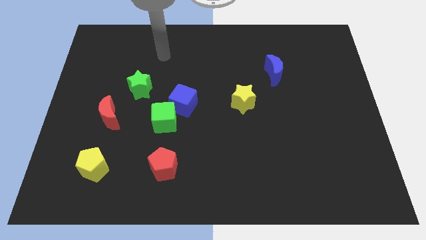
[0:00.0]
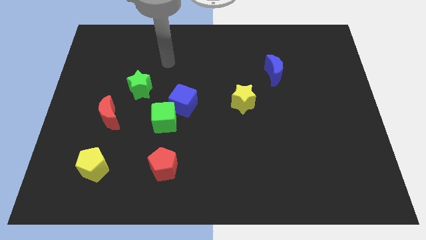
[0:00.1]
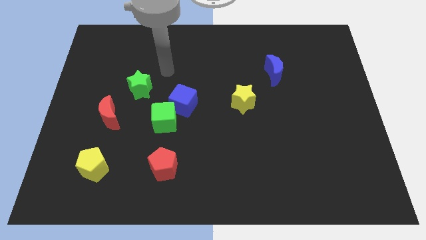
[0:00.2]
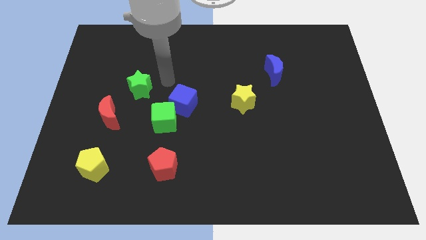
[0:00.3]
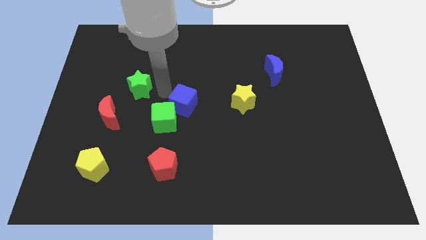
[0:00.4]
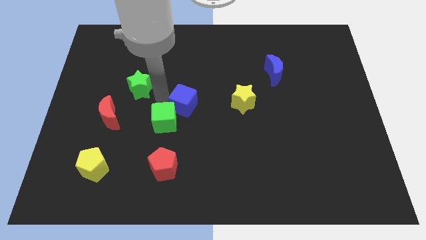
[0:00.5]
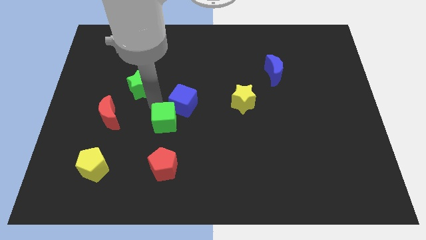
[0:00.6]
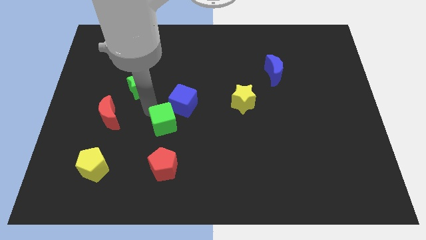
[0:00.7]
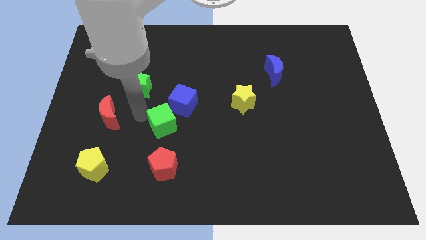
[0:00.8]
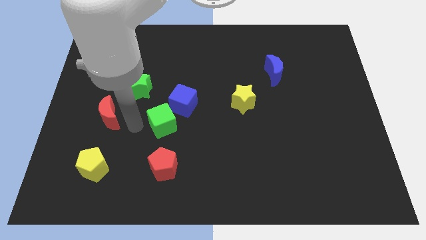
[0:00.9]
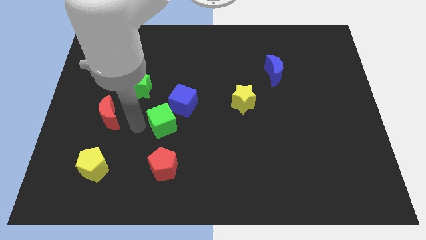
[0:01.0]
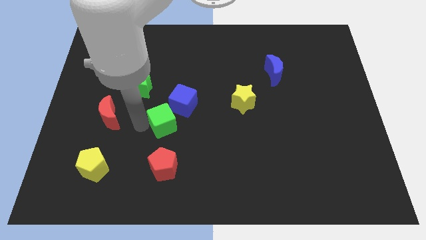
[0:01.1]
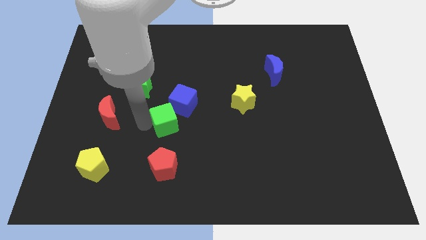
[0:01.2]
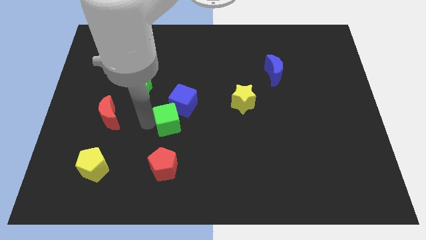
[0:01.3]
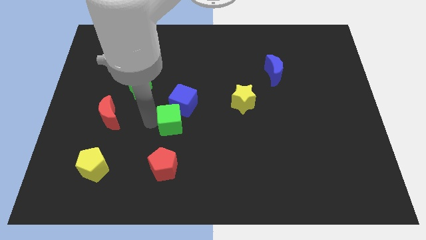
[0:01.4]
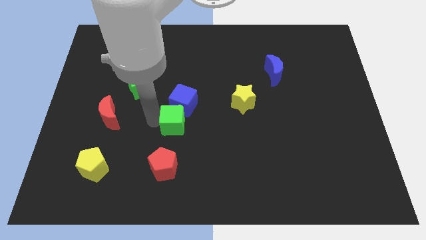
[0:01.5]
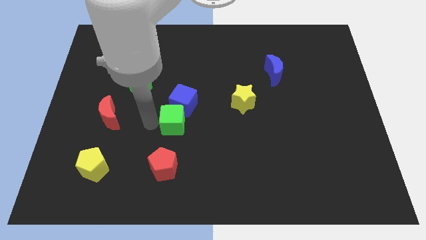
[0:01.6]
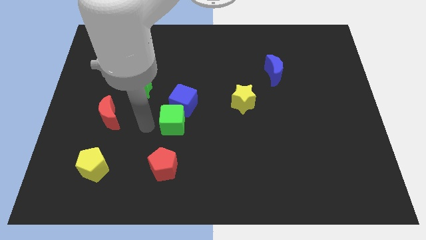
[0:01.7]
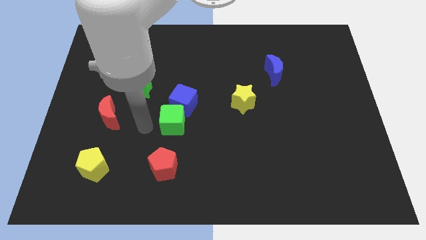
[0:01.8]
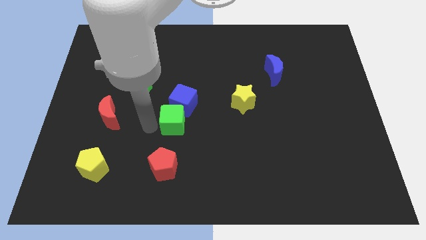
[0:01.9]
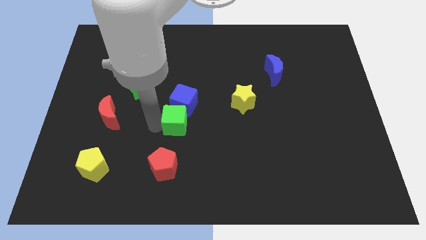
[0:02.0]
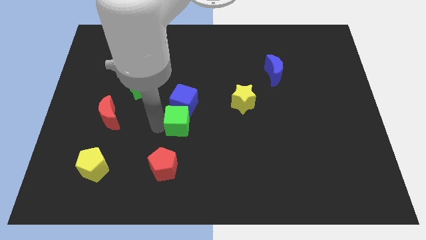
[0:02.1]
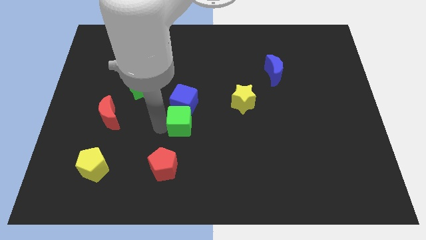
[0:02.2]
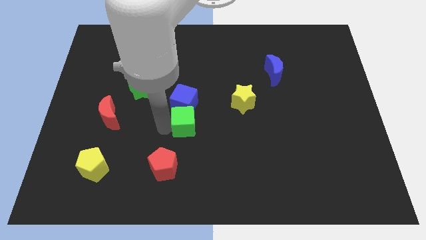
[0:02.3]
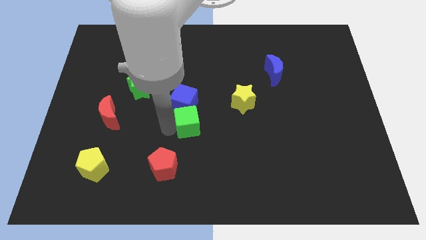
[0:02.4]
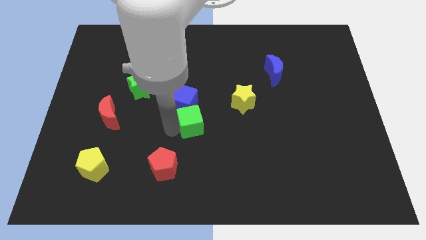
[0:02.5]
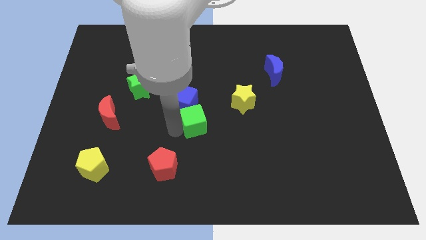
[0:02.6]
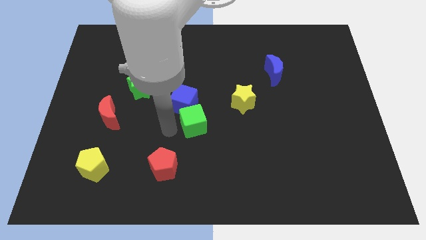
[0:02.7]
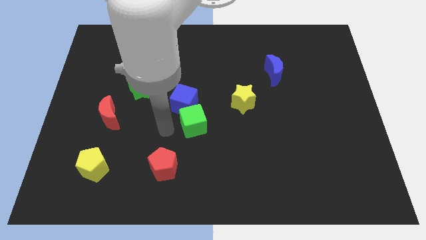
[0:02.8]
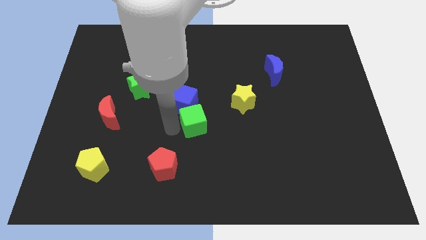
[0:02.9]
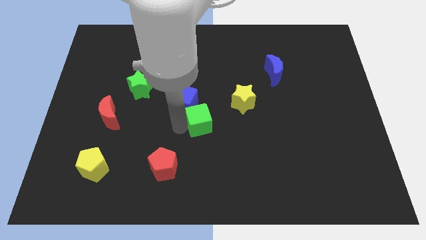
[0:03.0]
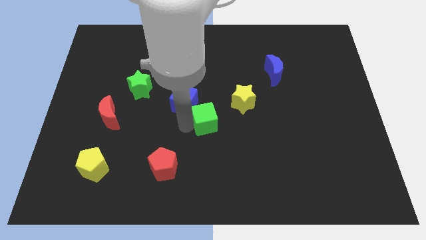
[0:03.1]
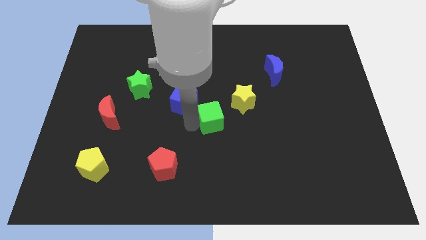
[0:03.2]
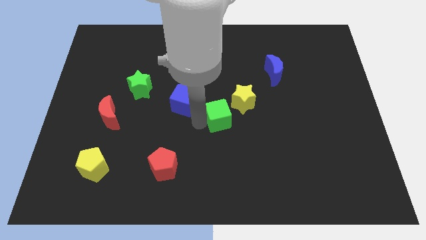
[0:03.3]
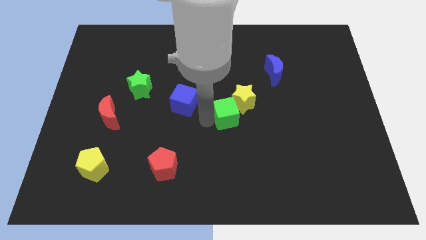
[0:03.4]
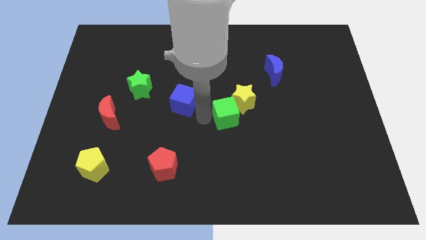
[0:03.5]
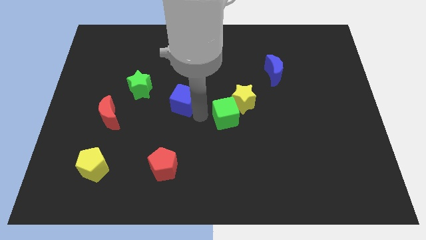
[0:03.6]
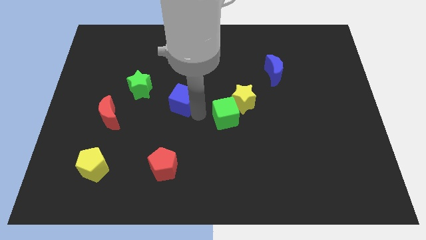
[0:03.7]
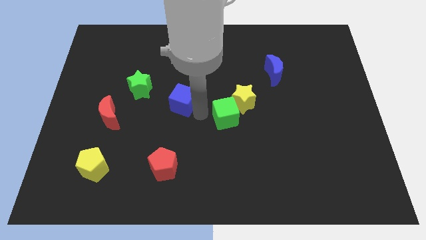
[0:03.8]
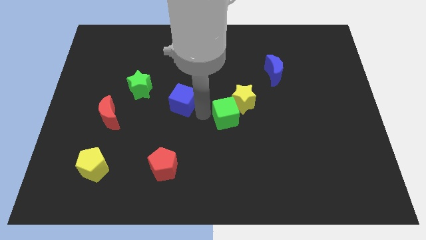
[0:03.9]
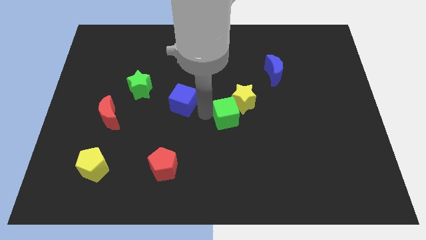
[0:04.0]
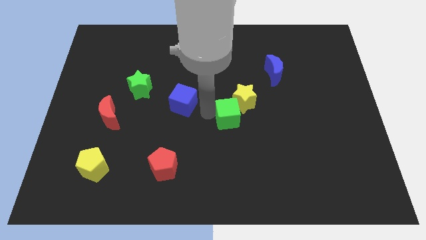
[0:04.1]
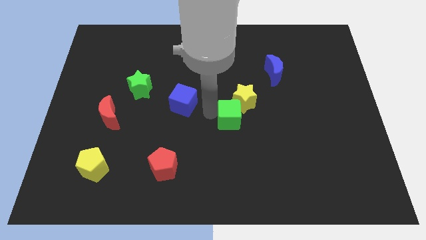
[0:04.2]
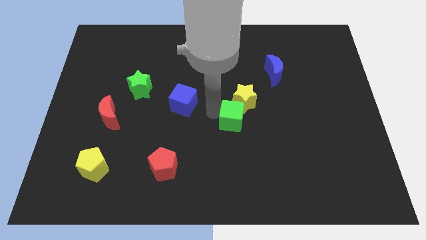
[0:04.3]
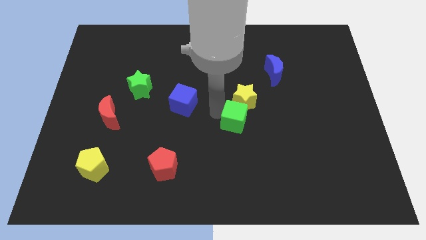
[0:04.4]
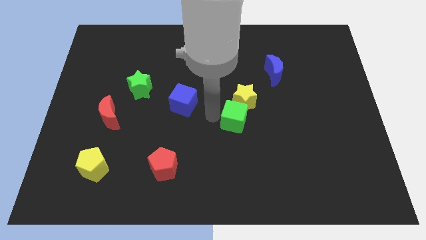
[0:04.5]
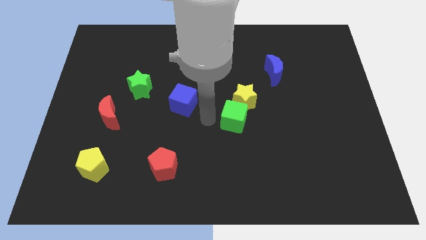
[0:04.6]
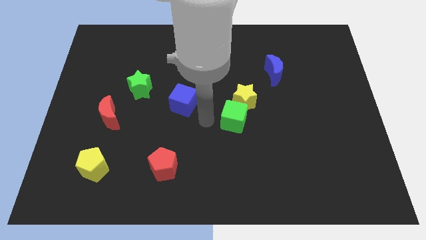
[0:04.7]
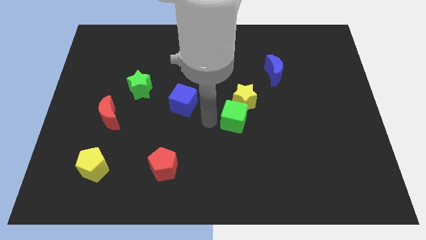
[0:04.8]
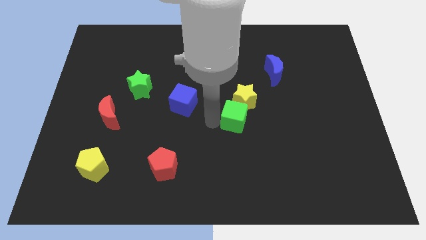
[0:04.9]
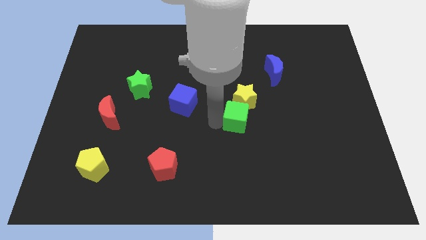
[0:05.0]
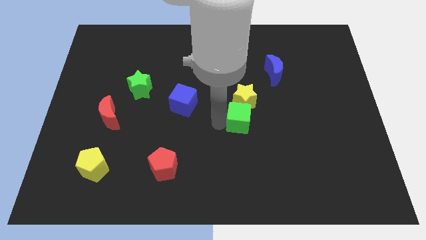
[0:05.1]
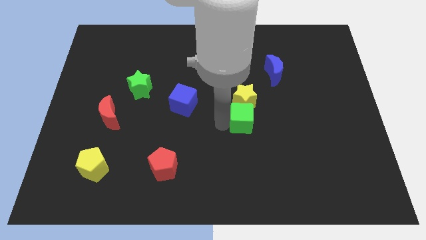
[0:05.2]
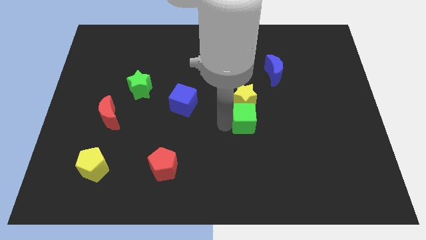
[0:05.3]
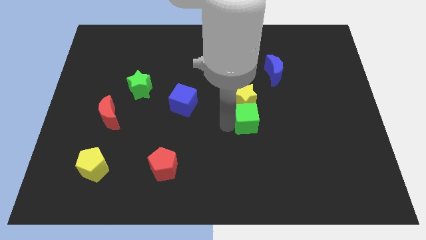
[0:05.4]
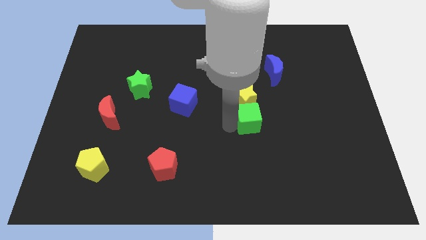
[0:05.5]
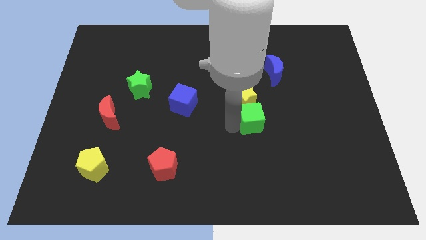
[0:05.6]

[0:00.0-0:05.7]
move the green cube right

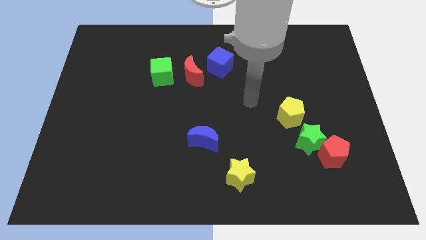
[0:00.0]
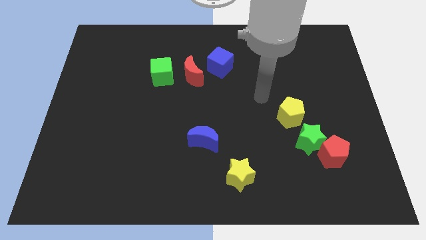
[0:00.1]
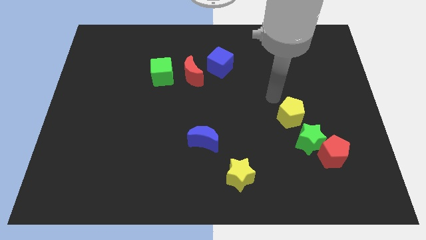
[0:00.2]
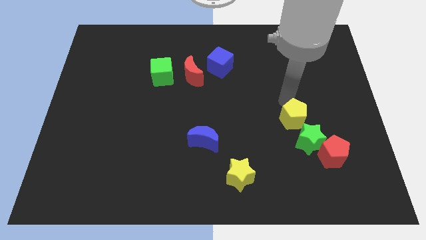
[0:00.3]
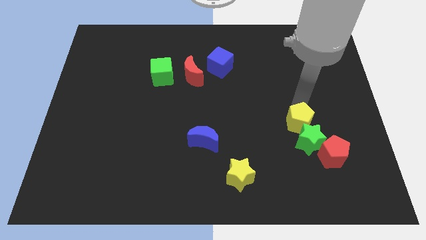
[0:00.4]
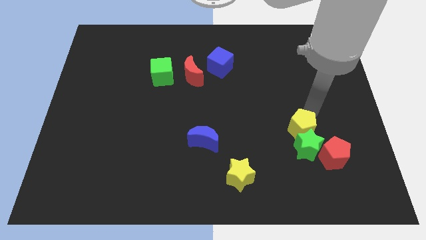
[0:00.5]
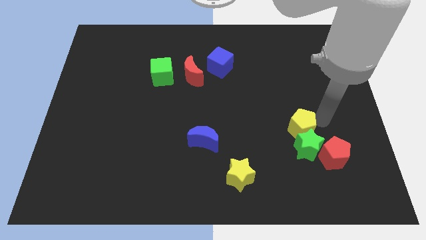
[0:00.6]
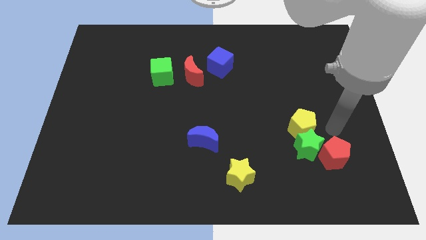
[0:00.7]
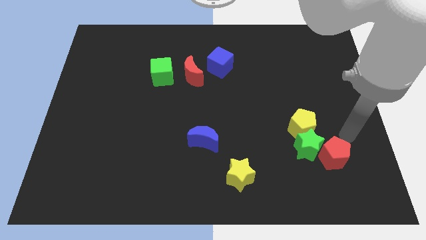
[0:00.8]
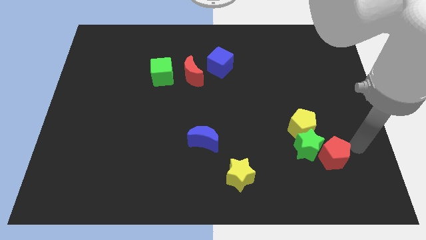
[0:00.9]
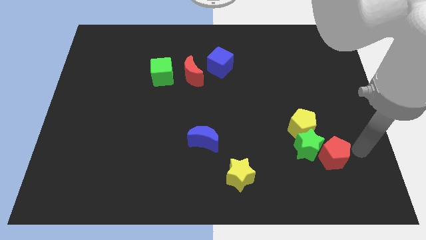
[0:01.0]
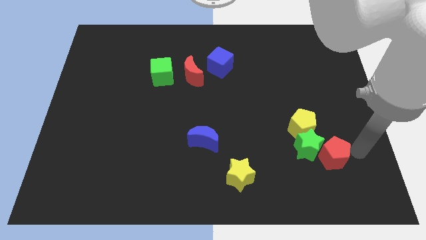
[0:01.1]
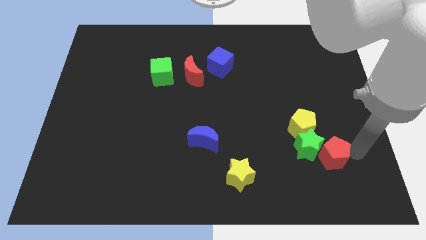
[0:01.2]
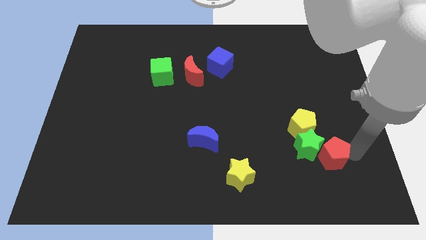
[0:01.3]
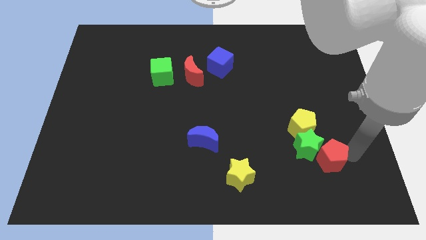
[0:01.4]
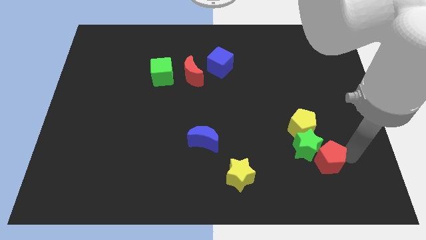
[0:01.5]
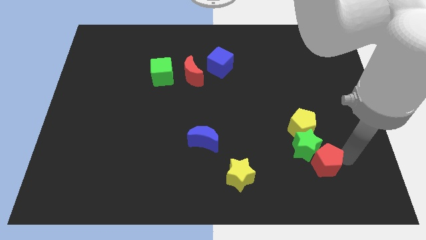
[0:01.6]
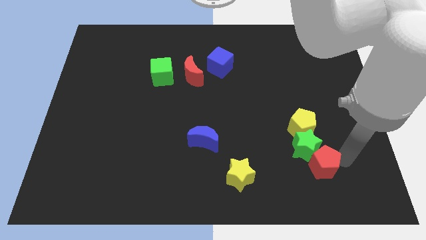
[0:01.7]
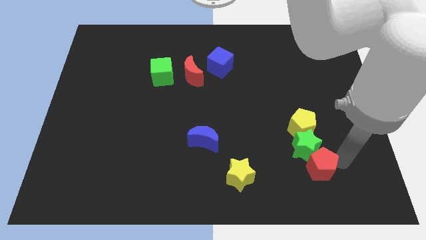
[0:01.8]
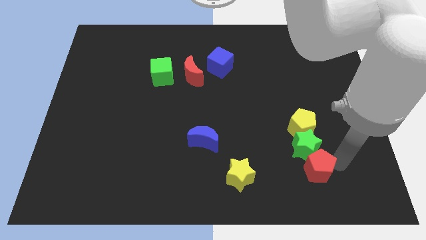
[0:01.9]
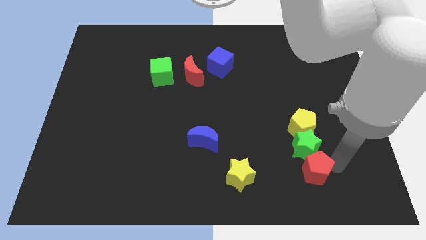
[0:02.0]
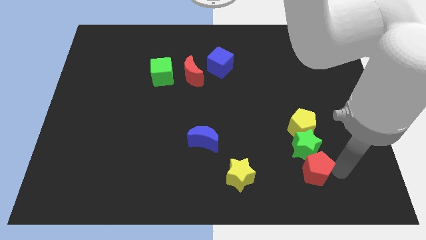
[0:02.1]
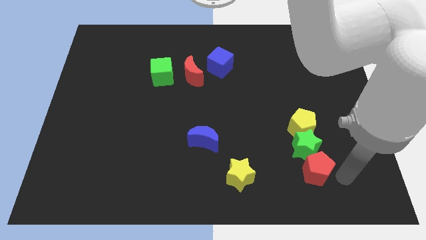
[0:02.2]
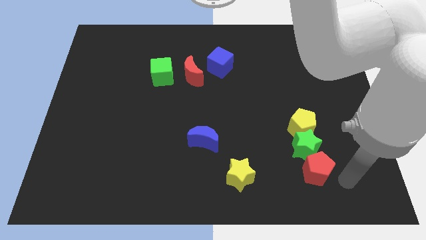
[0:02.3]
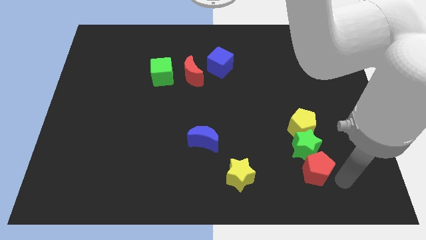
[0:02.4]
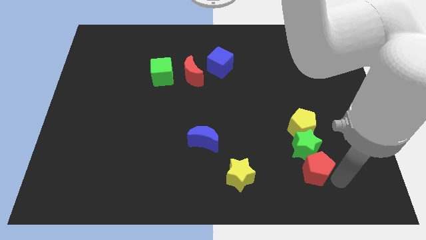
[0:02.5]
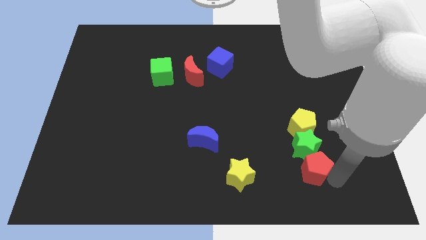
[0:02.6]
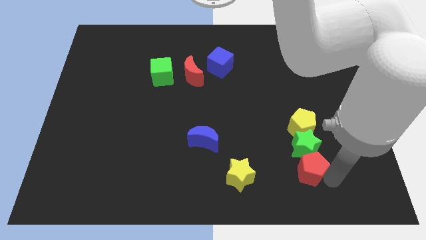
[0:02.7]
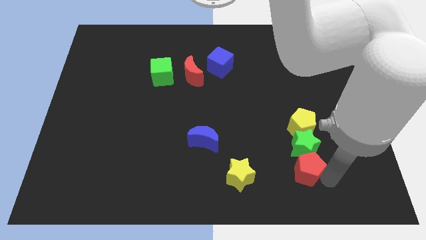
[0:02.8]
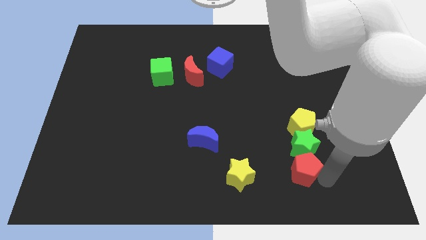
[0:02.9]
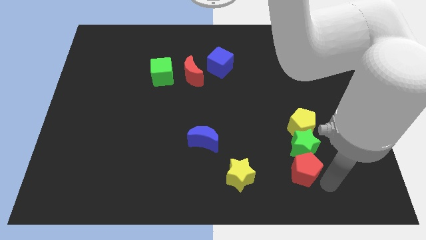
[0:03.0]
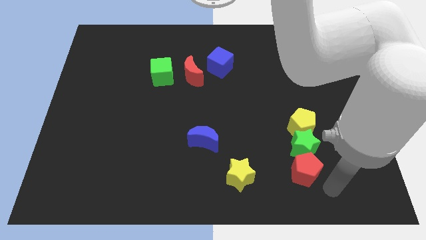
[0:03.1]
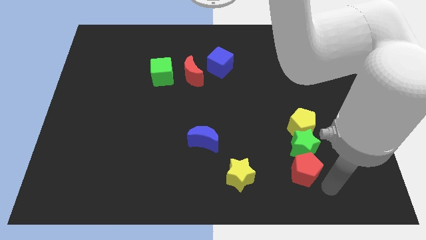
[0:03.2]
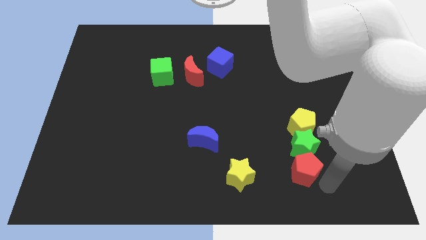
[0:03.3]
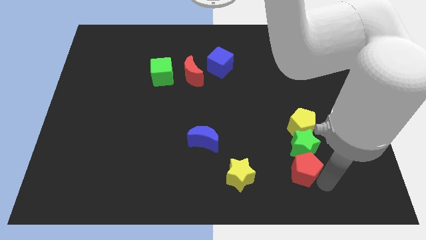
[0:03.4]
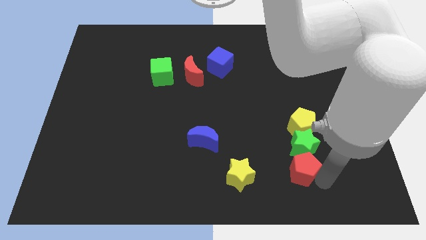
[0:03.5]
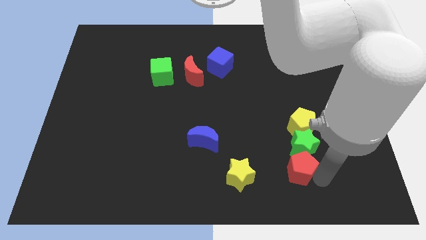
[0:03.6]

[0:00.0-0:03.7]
move the red pentagon left somewhat
